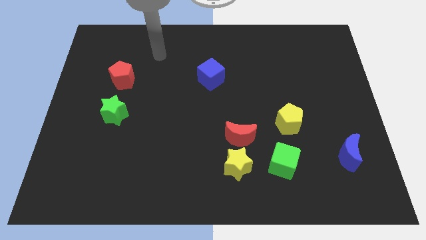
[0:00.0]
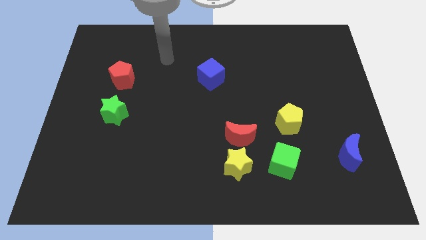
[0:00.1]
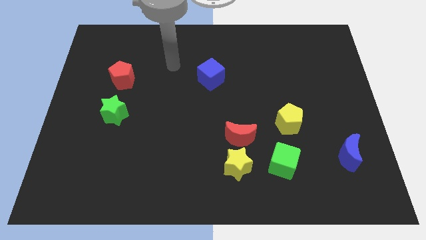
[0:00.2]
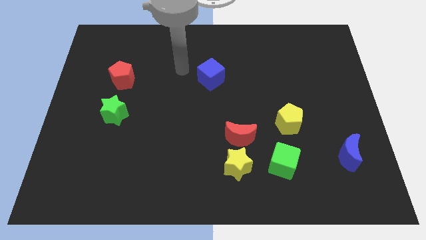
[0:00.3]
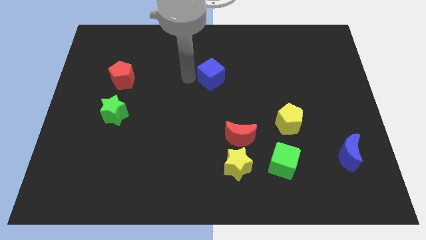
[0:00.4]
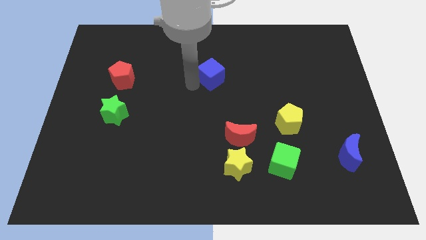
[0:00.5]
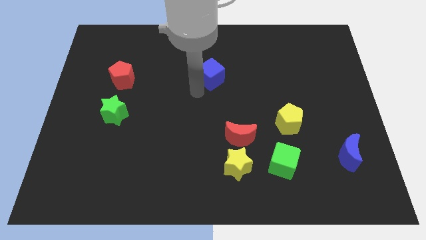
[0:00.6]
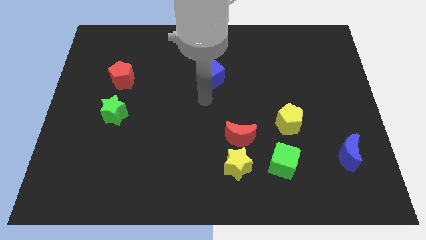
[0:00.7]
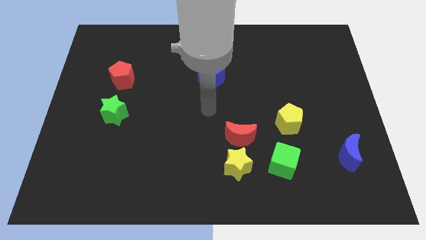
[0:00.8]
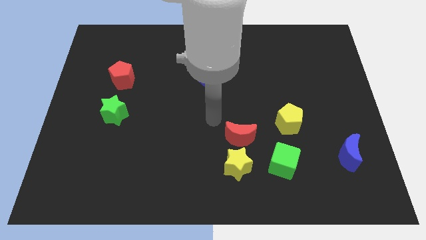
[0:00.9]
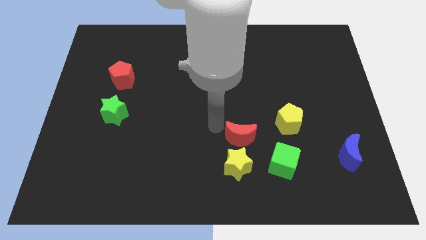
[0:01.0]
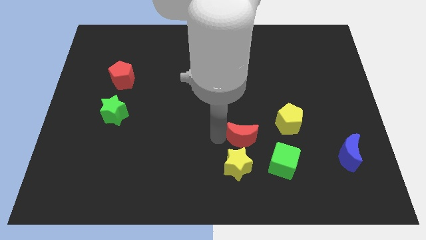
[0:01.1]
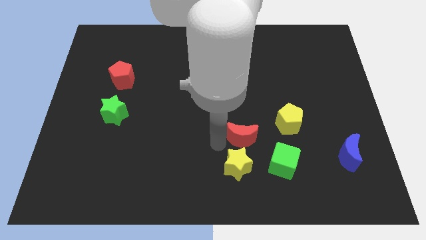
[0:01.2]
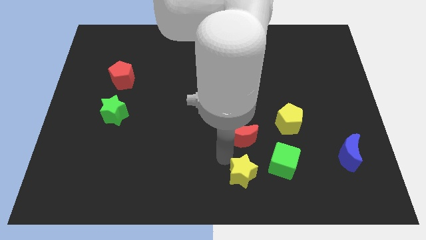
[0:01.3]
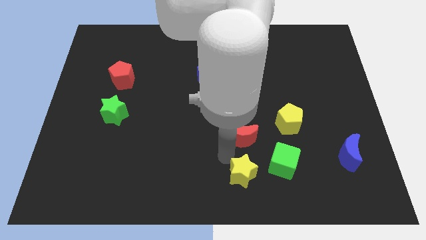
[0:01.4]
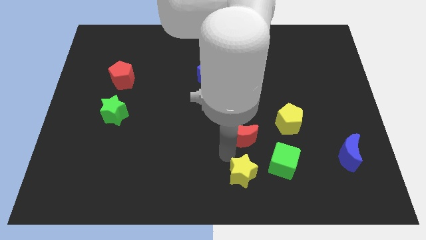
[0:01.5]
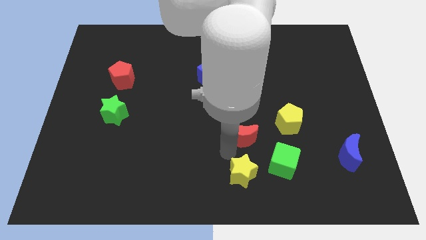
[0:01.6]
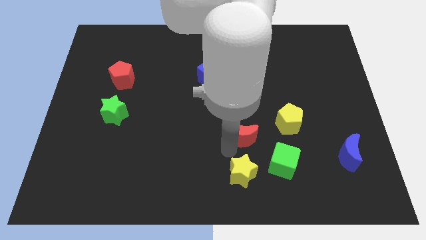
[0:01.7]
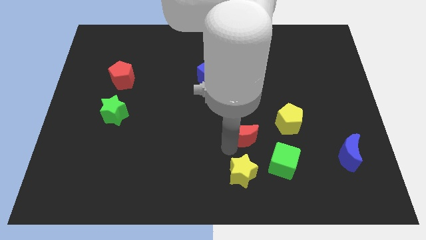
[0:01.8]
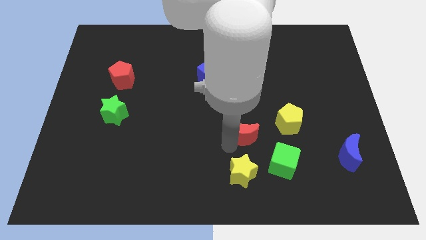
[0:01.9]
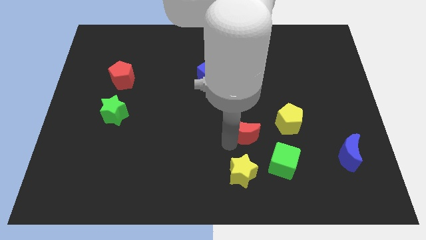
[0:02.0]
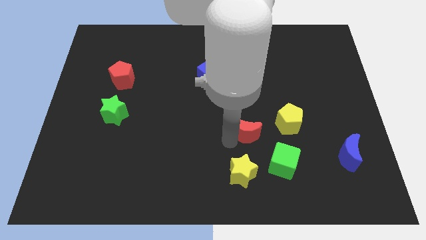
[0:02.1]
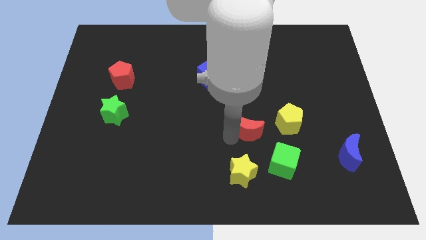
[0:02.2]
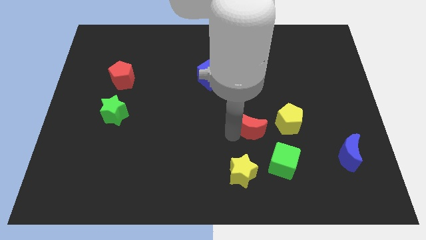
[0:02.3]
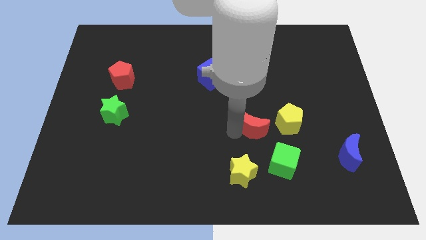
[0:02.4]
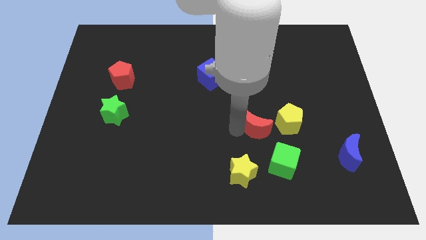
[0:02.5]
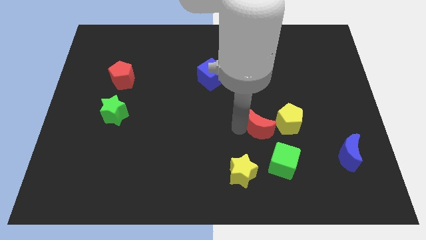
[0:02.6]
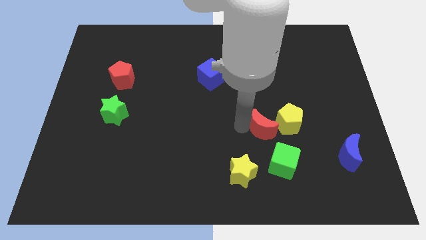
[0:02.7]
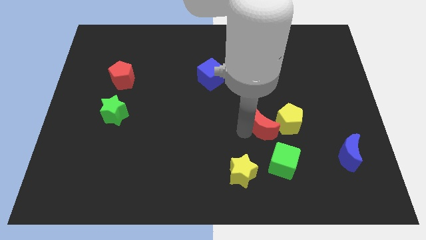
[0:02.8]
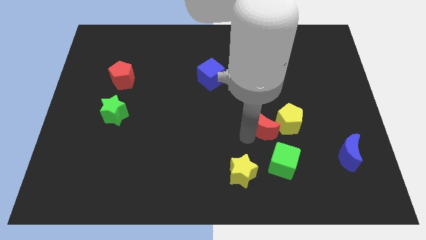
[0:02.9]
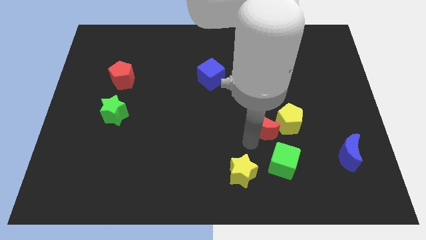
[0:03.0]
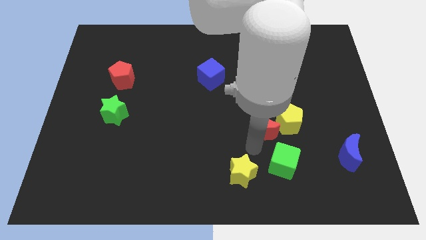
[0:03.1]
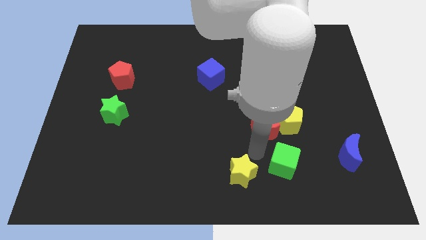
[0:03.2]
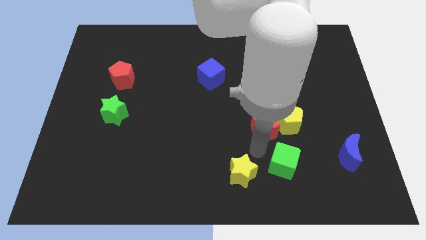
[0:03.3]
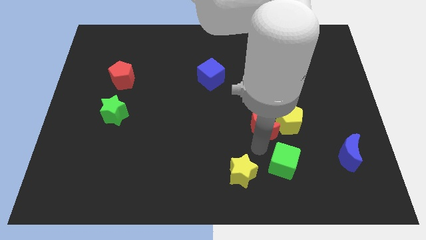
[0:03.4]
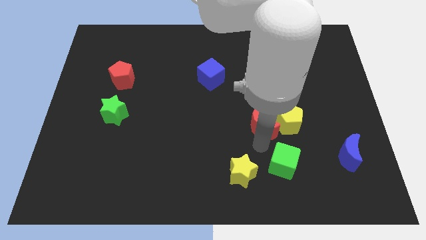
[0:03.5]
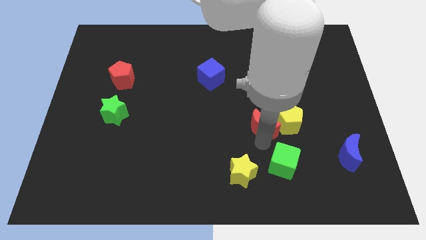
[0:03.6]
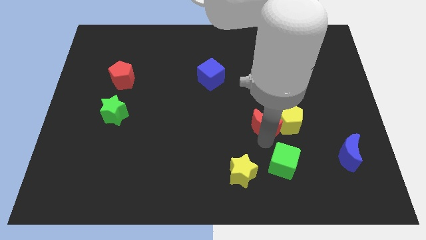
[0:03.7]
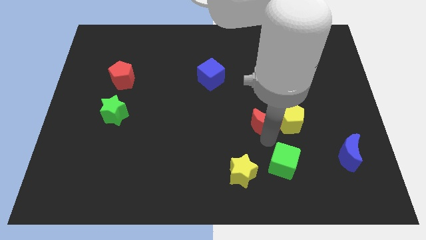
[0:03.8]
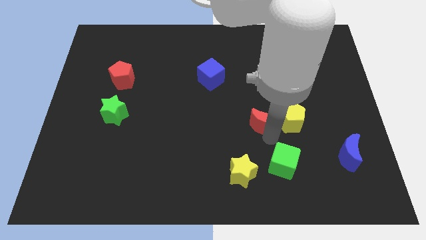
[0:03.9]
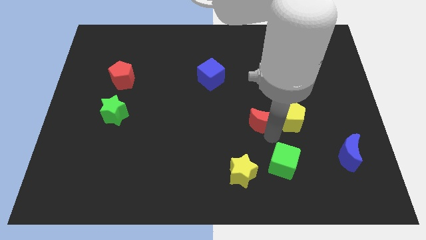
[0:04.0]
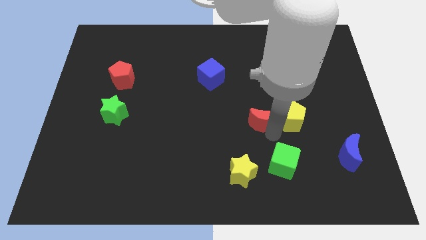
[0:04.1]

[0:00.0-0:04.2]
slide the red moon a little upwards and right diagonally

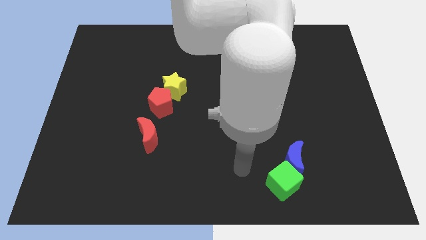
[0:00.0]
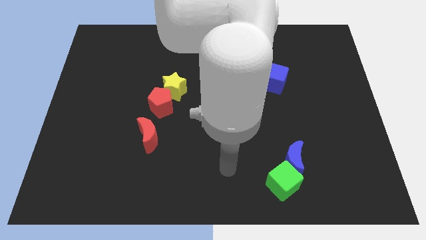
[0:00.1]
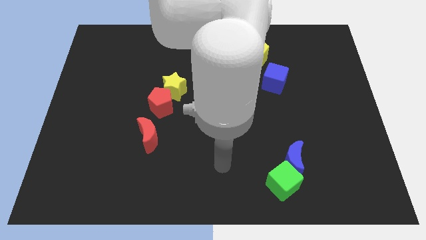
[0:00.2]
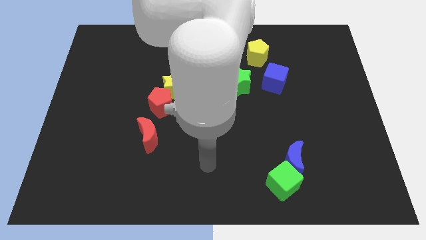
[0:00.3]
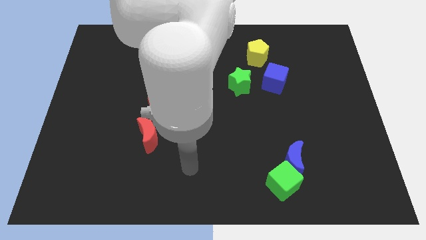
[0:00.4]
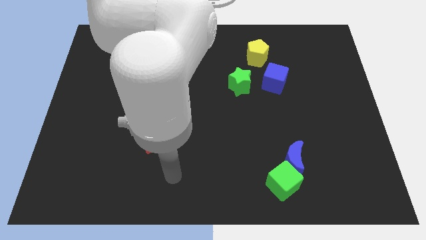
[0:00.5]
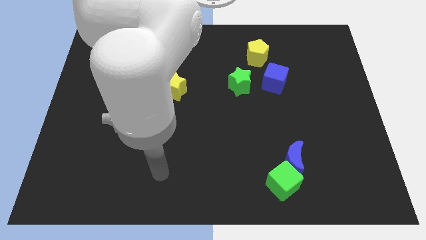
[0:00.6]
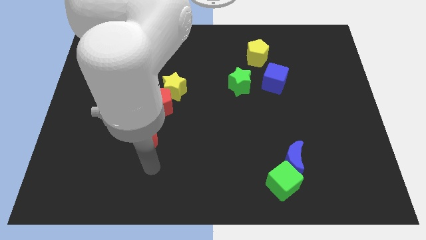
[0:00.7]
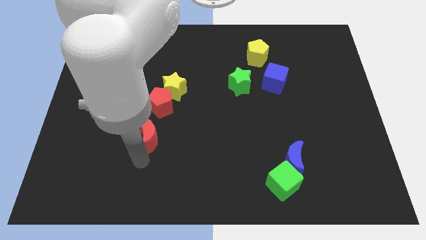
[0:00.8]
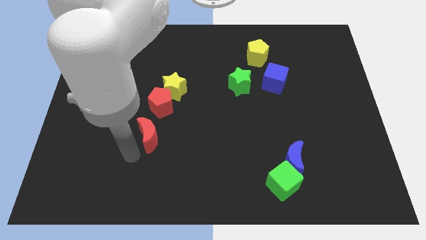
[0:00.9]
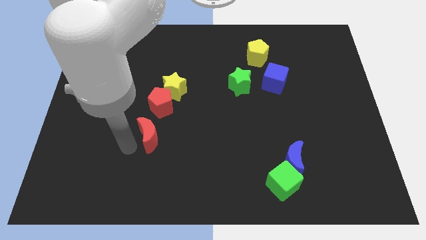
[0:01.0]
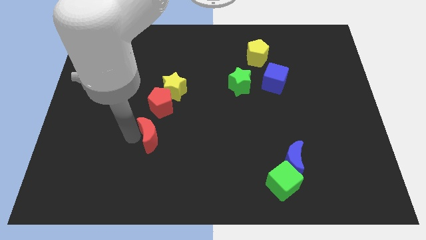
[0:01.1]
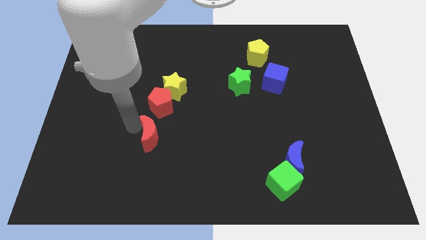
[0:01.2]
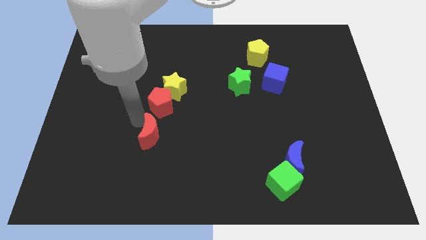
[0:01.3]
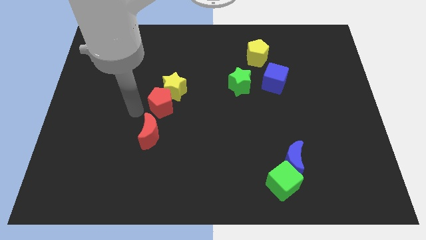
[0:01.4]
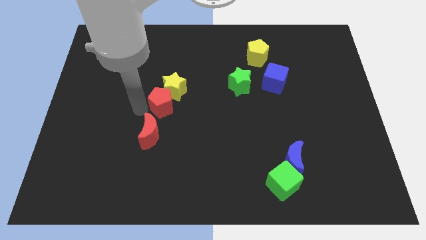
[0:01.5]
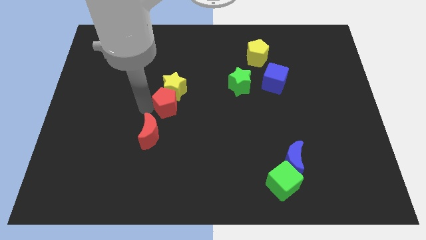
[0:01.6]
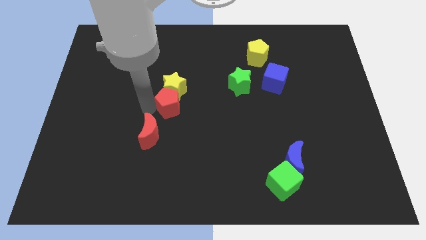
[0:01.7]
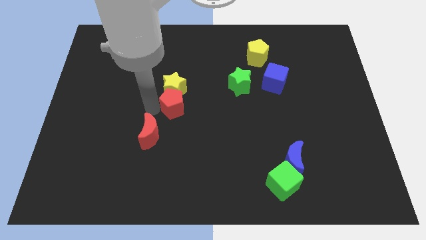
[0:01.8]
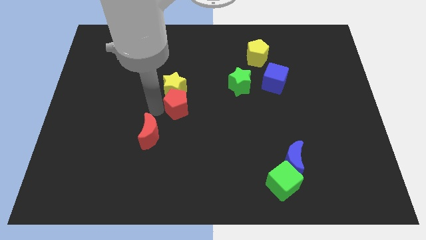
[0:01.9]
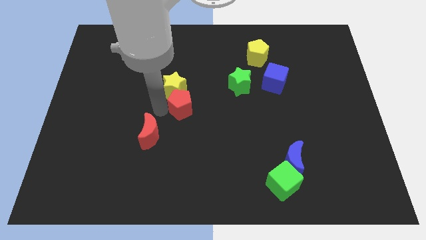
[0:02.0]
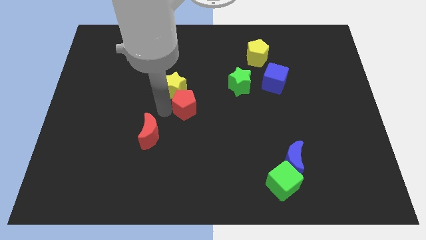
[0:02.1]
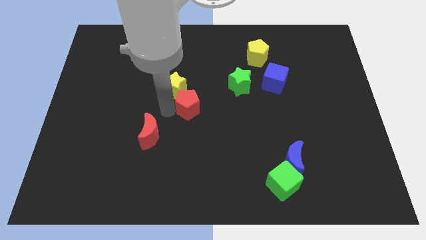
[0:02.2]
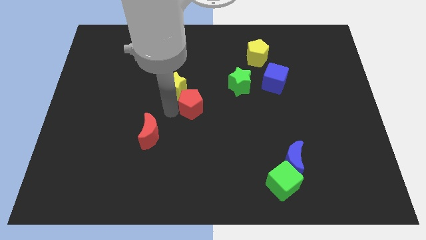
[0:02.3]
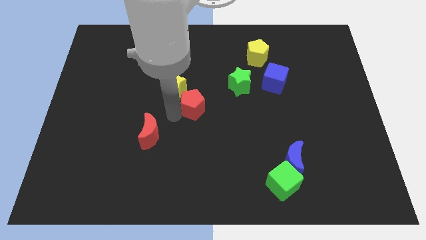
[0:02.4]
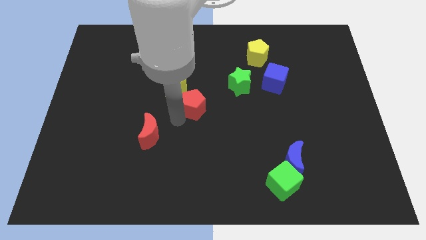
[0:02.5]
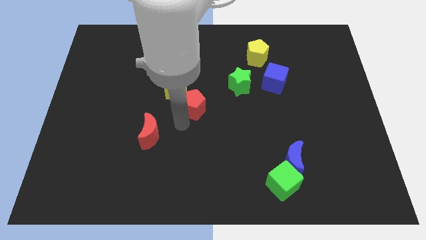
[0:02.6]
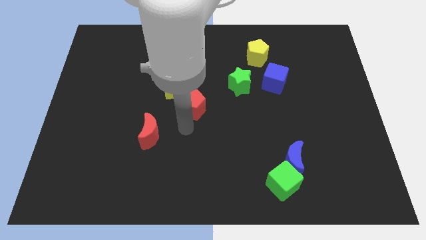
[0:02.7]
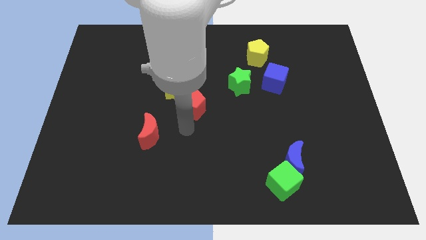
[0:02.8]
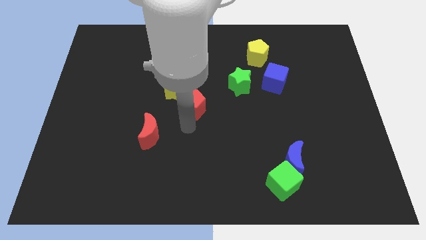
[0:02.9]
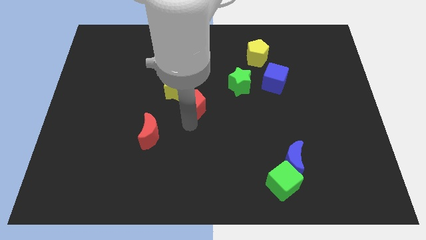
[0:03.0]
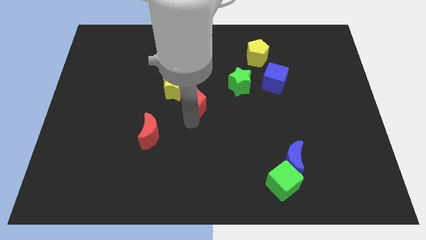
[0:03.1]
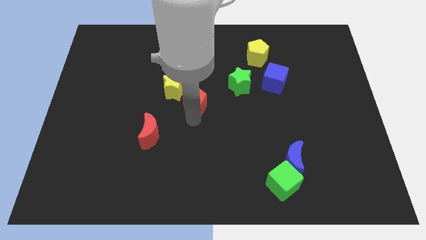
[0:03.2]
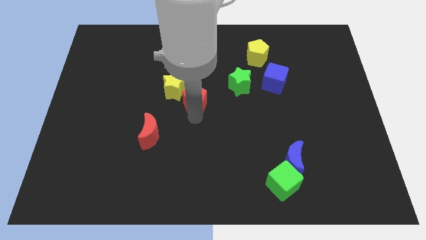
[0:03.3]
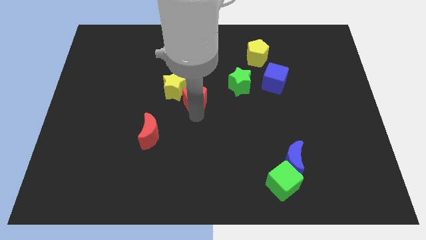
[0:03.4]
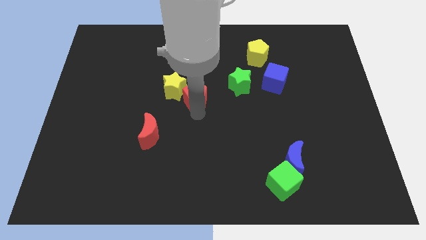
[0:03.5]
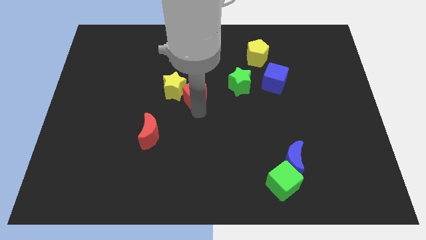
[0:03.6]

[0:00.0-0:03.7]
move the red pentagon upwards and right a little

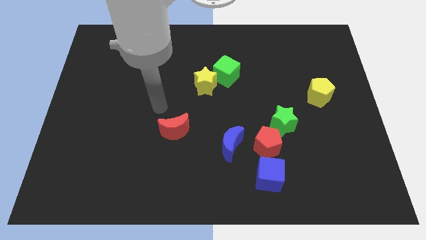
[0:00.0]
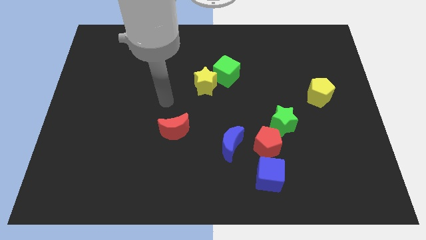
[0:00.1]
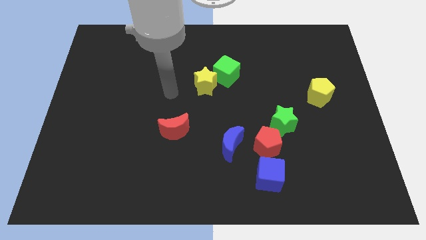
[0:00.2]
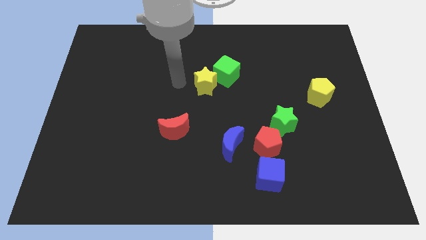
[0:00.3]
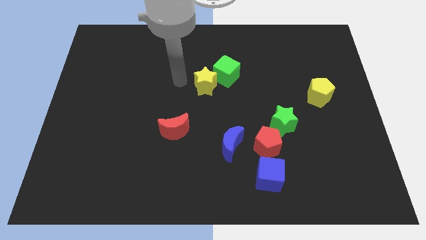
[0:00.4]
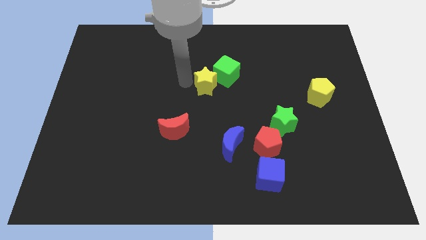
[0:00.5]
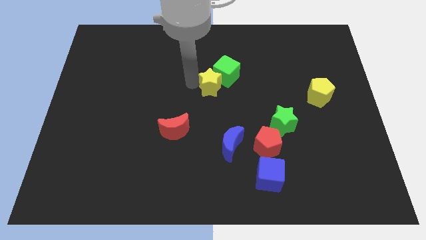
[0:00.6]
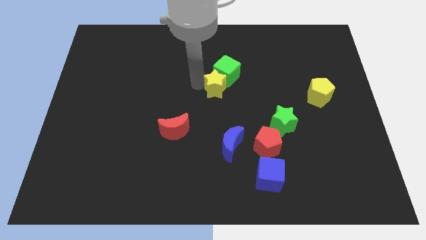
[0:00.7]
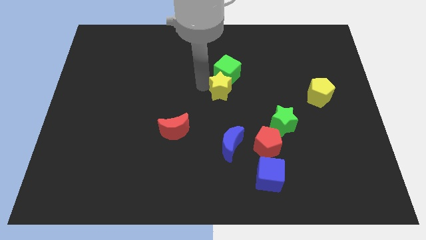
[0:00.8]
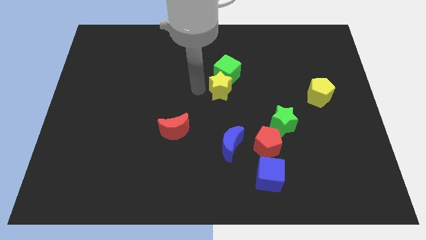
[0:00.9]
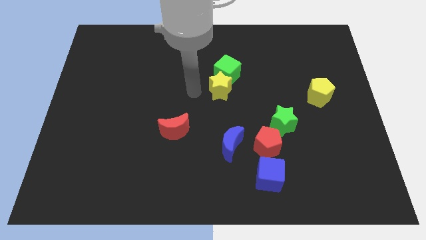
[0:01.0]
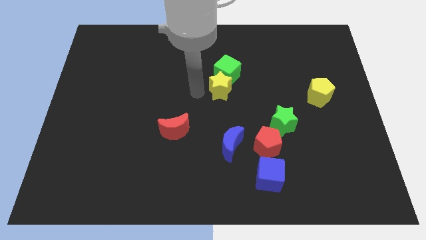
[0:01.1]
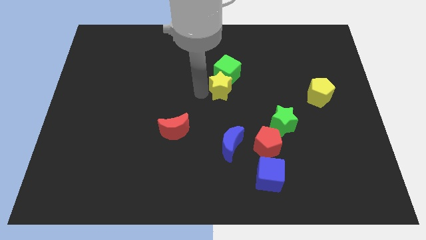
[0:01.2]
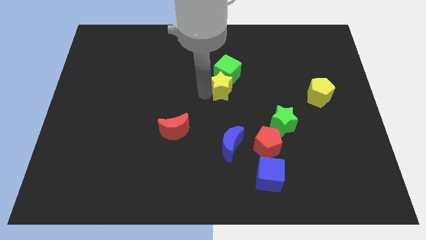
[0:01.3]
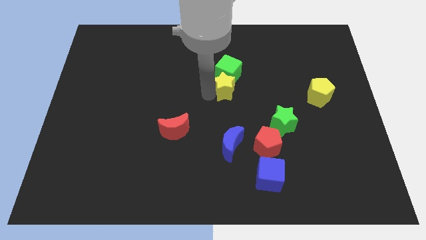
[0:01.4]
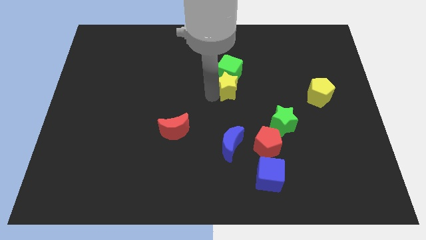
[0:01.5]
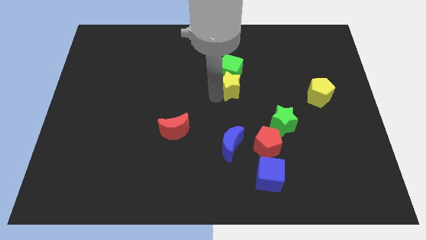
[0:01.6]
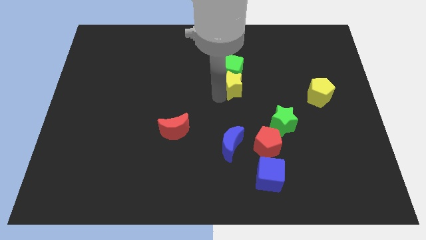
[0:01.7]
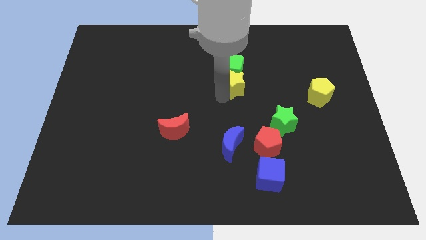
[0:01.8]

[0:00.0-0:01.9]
move the yellow star a bit right
